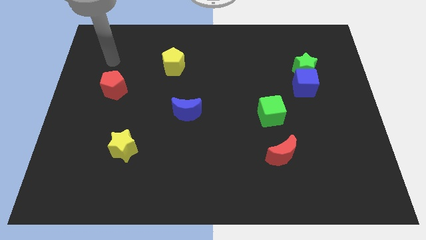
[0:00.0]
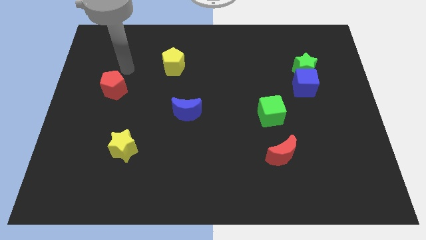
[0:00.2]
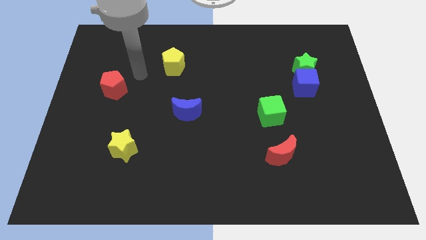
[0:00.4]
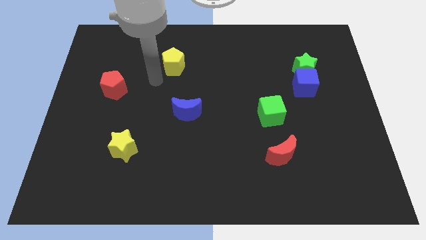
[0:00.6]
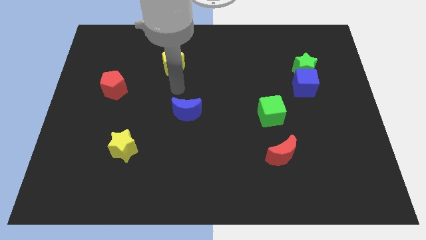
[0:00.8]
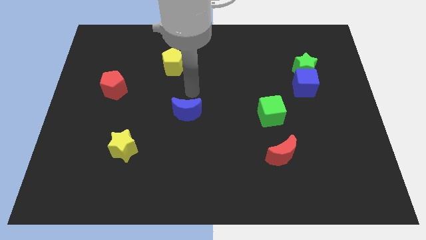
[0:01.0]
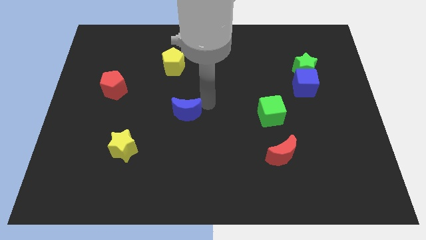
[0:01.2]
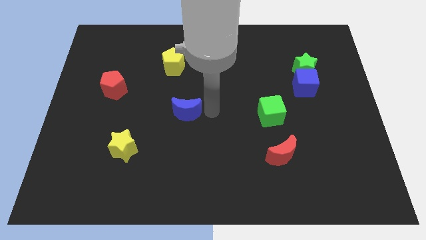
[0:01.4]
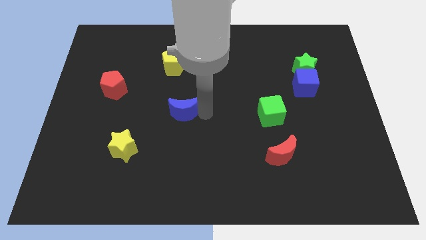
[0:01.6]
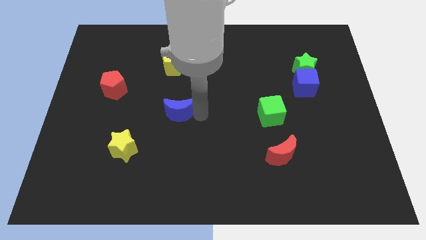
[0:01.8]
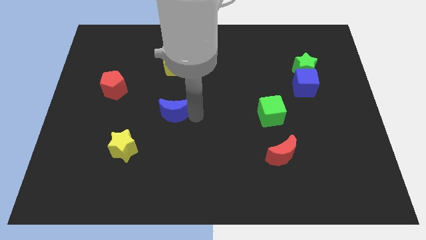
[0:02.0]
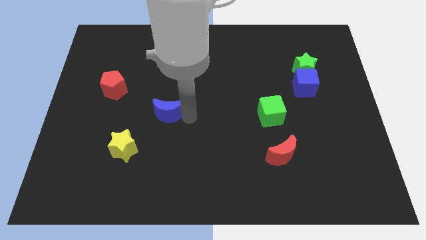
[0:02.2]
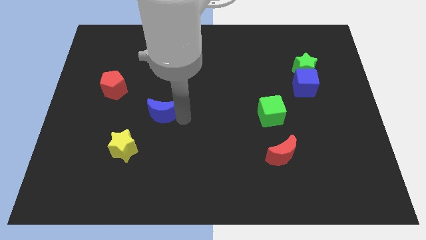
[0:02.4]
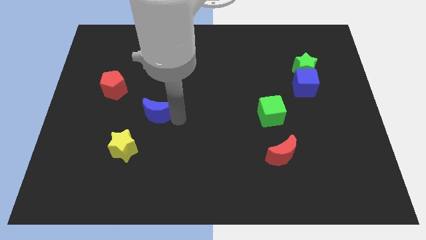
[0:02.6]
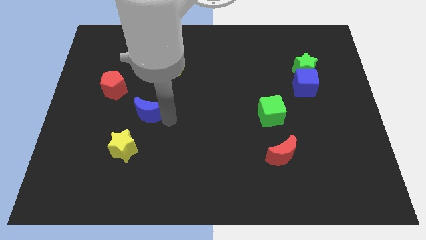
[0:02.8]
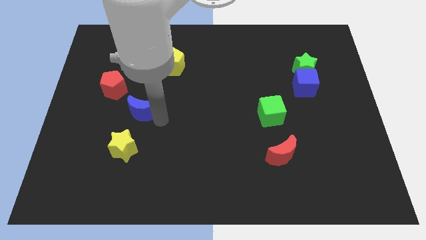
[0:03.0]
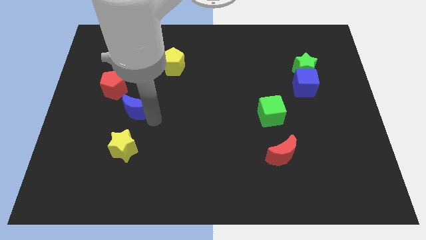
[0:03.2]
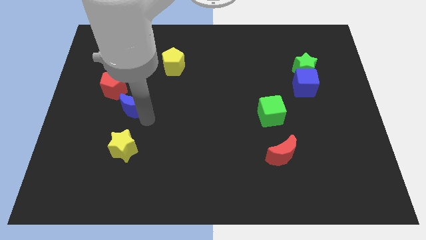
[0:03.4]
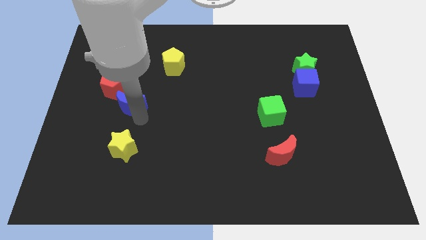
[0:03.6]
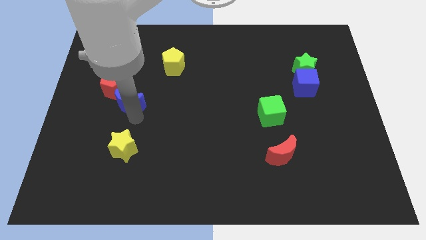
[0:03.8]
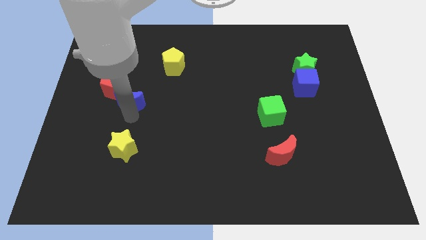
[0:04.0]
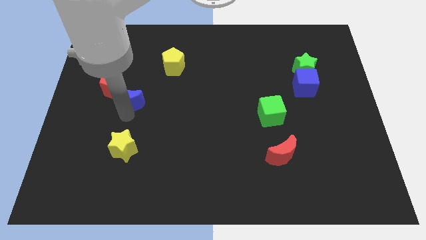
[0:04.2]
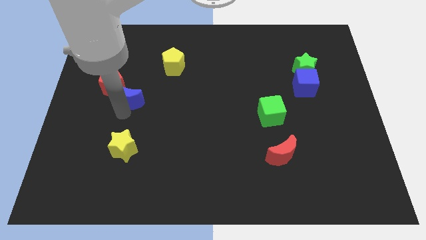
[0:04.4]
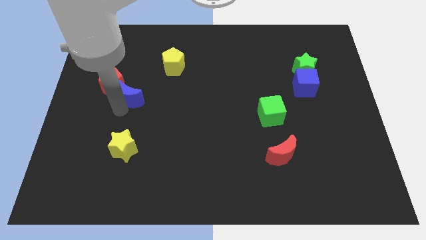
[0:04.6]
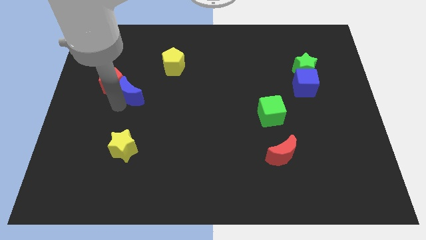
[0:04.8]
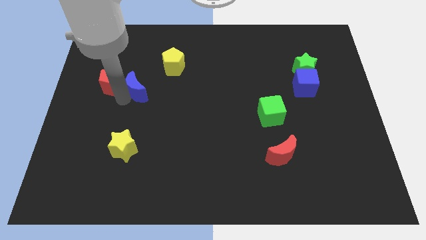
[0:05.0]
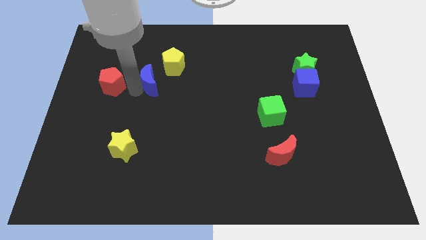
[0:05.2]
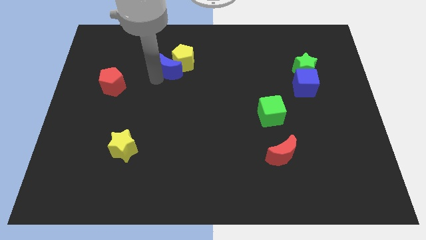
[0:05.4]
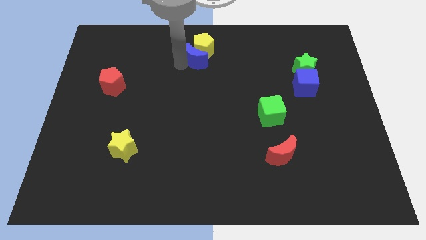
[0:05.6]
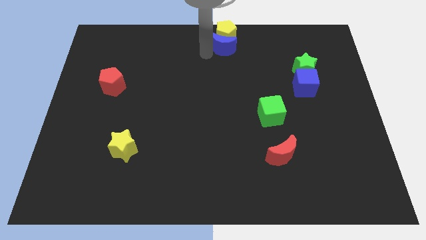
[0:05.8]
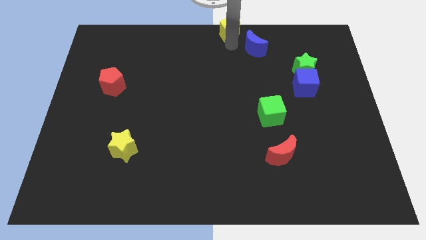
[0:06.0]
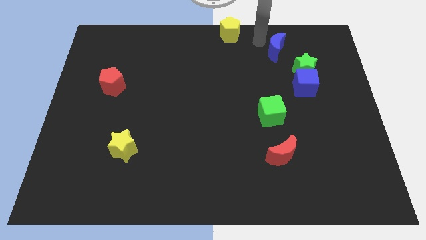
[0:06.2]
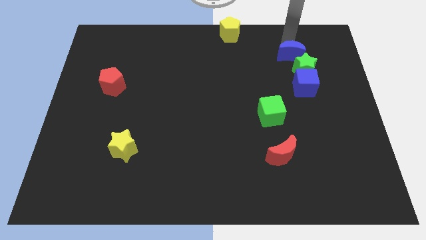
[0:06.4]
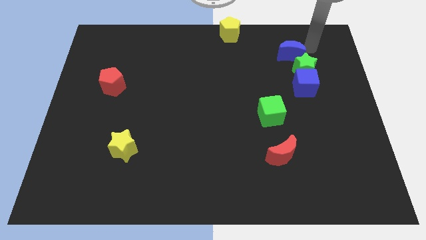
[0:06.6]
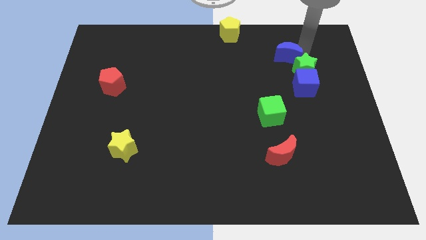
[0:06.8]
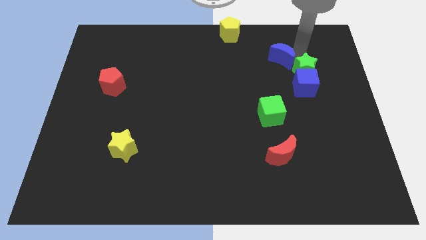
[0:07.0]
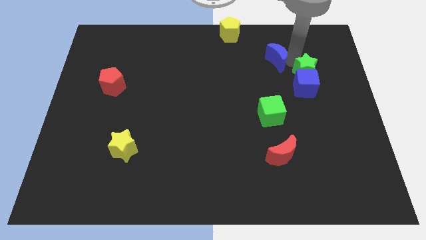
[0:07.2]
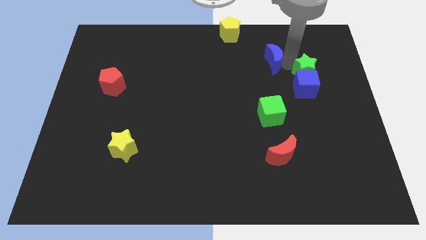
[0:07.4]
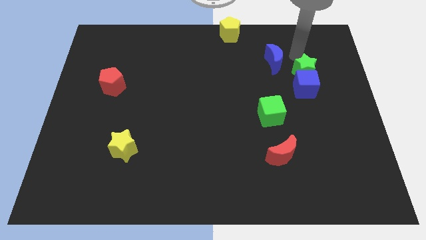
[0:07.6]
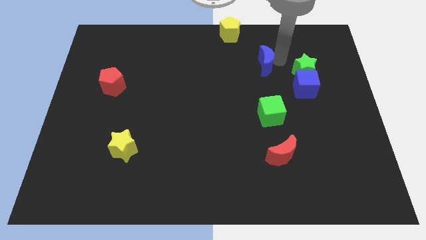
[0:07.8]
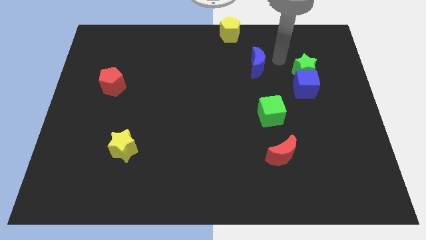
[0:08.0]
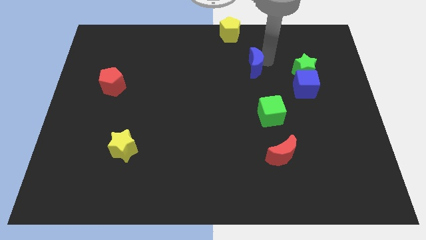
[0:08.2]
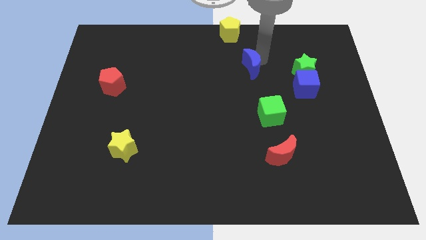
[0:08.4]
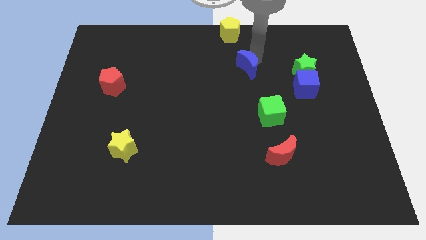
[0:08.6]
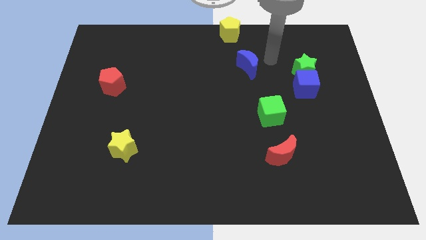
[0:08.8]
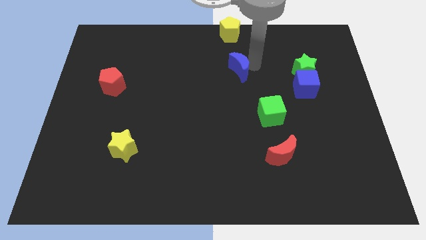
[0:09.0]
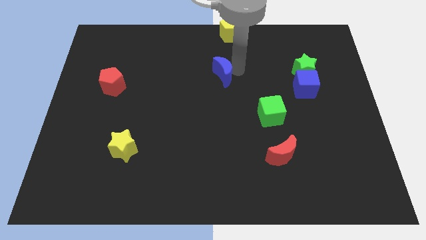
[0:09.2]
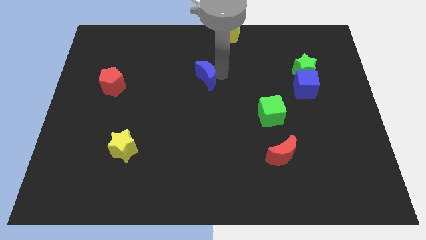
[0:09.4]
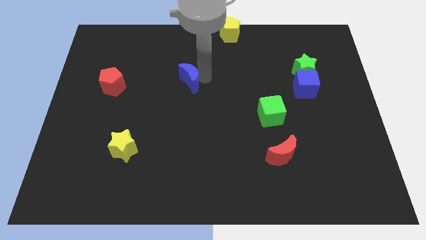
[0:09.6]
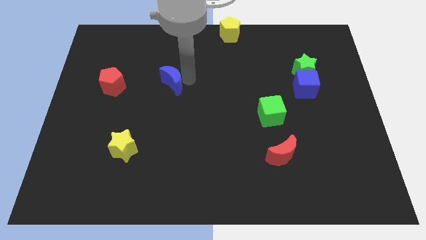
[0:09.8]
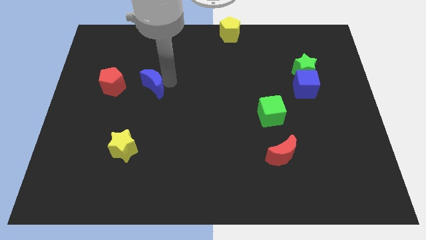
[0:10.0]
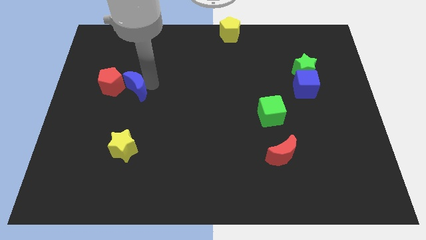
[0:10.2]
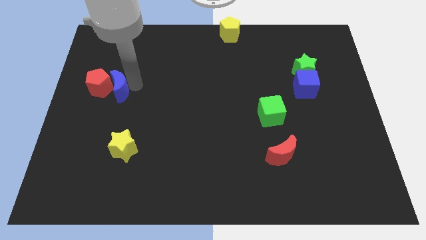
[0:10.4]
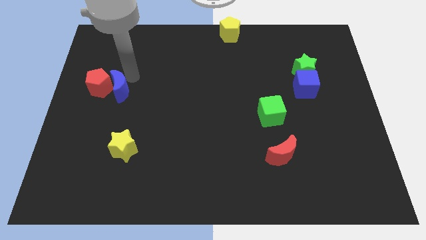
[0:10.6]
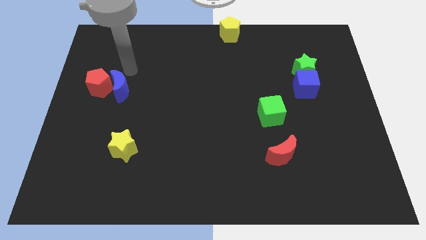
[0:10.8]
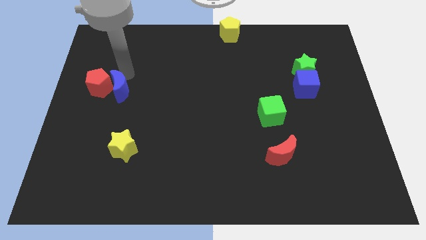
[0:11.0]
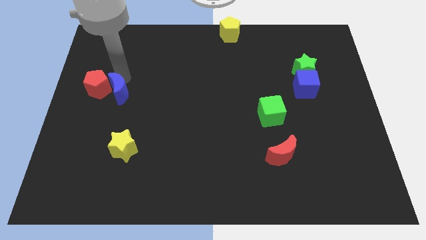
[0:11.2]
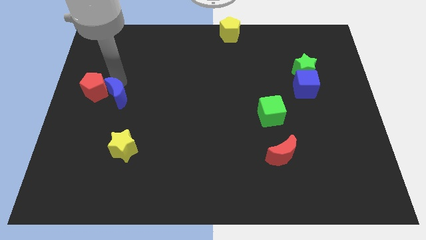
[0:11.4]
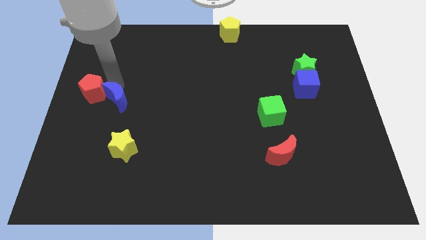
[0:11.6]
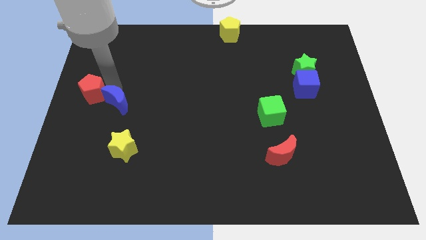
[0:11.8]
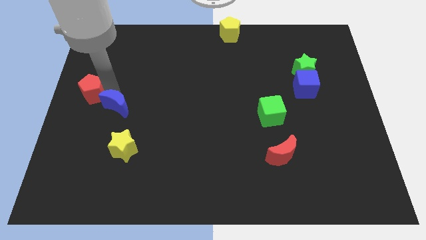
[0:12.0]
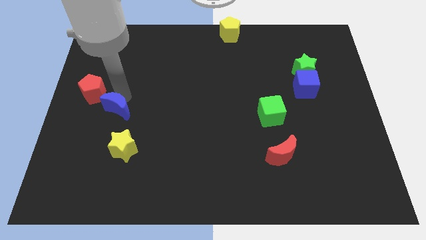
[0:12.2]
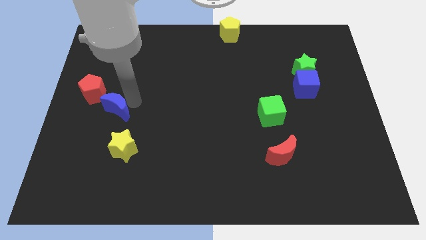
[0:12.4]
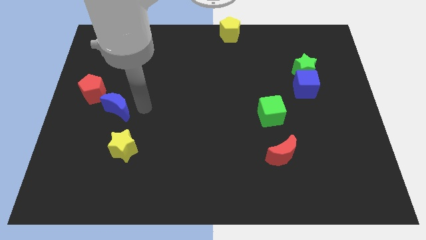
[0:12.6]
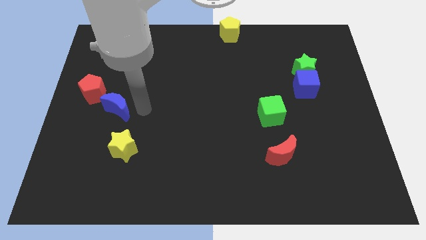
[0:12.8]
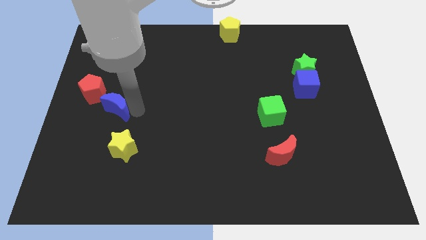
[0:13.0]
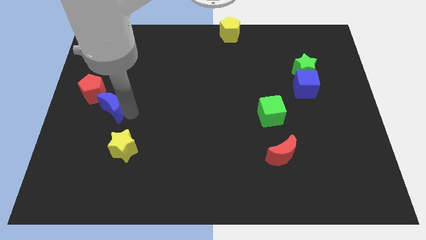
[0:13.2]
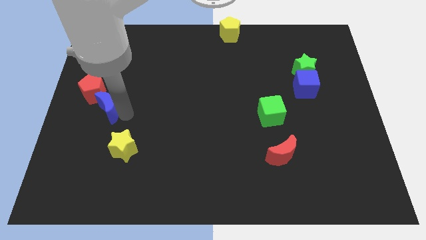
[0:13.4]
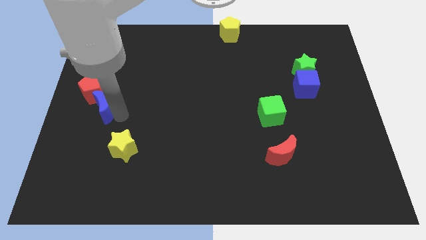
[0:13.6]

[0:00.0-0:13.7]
slide the blue moon to the left side

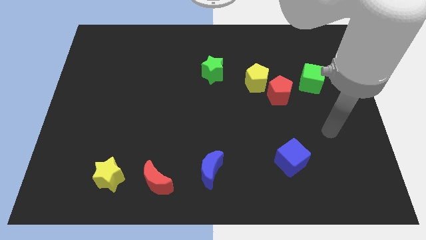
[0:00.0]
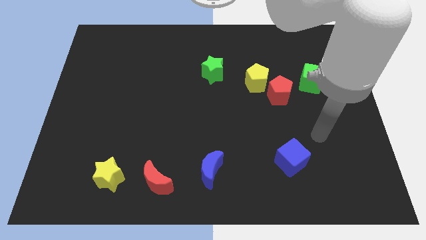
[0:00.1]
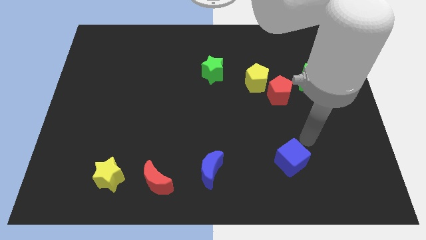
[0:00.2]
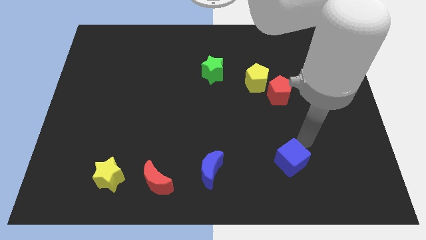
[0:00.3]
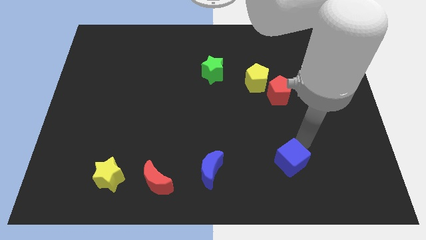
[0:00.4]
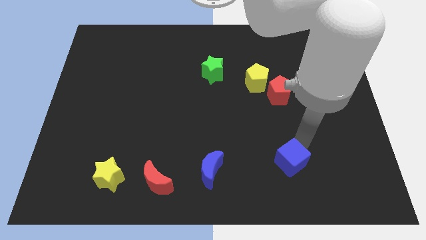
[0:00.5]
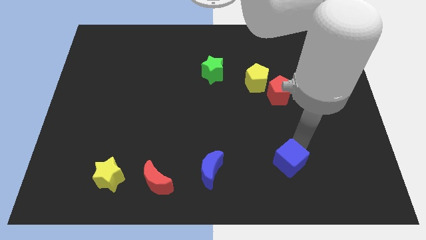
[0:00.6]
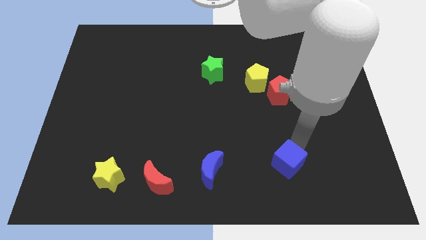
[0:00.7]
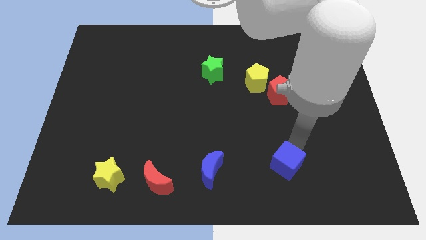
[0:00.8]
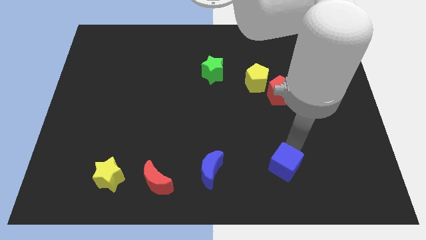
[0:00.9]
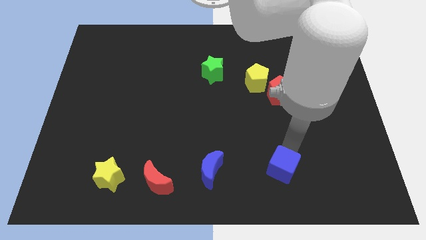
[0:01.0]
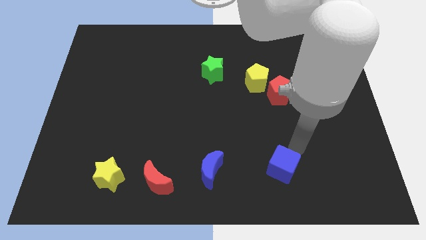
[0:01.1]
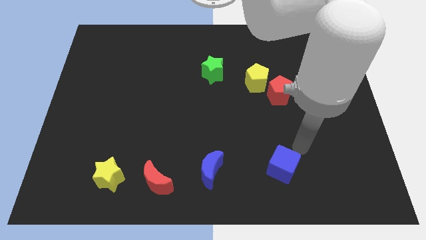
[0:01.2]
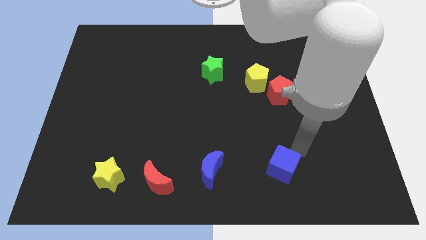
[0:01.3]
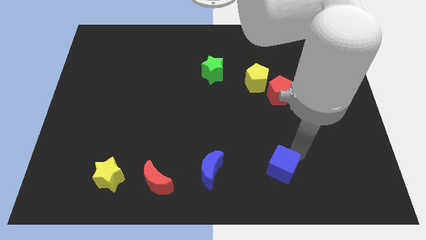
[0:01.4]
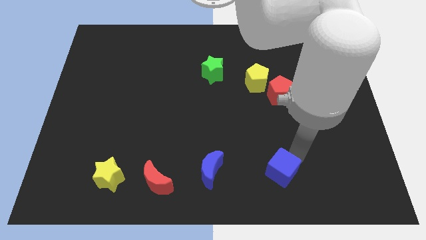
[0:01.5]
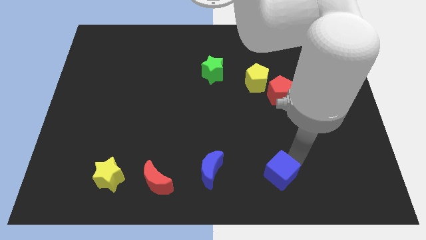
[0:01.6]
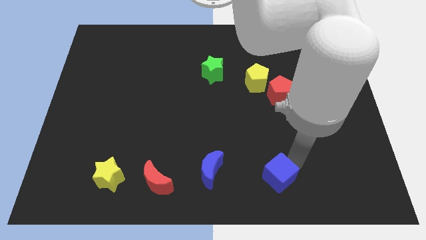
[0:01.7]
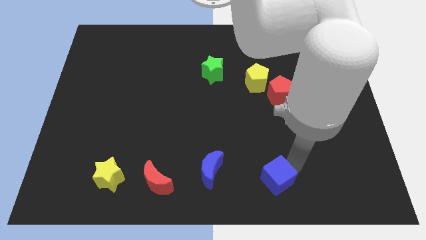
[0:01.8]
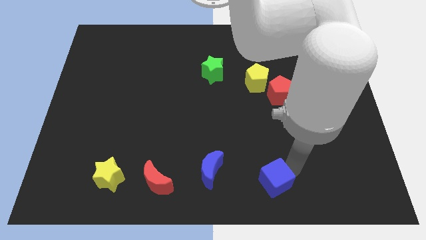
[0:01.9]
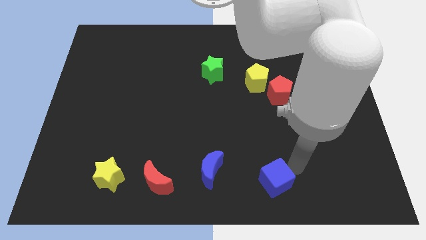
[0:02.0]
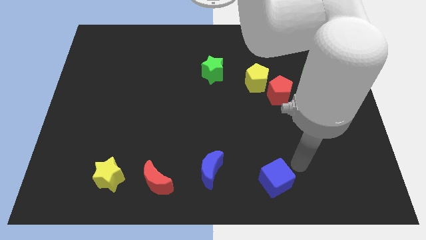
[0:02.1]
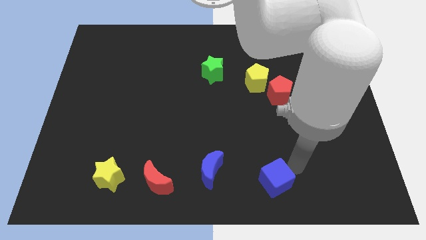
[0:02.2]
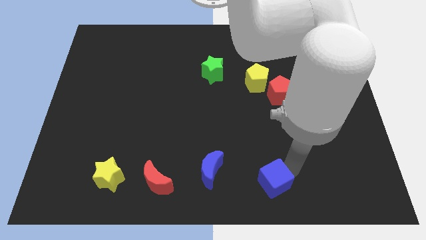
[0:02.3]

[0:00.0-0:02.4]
move the blue cube to the bottom side
